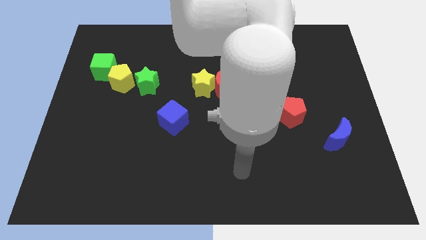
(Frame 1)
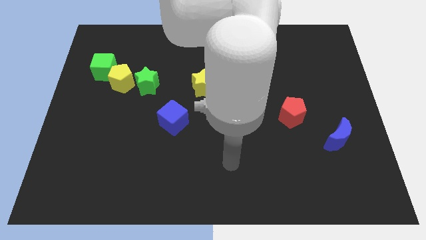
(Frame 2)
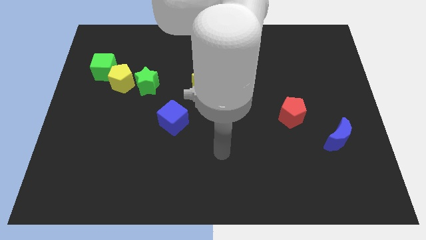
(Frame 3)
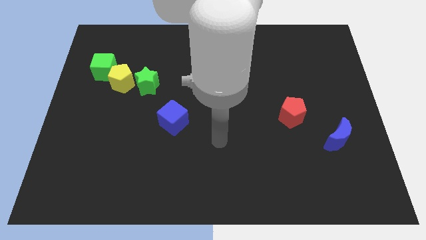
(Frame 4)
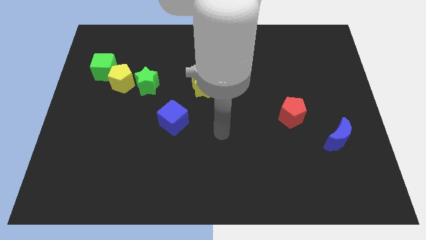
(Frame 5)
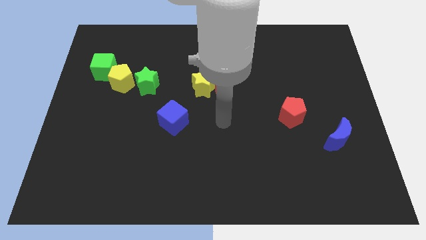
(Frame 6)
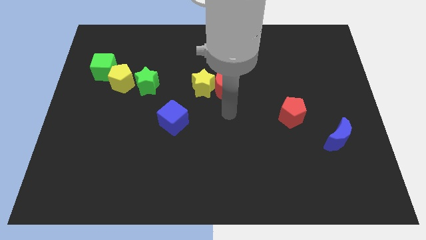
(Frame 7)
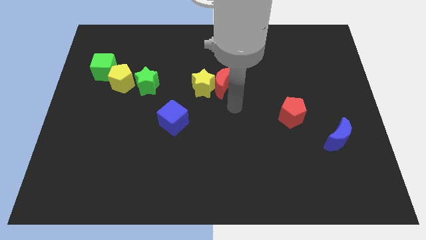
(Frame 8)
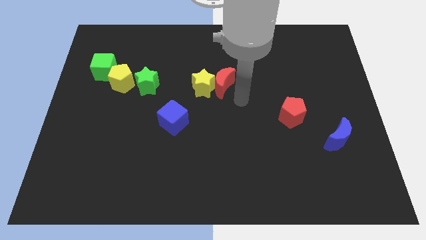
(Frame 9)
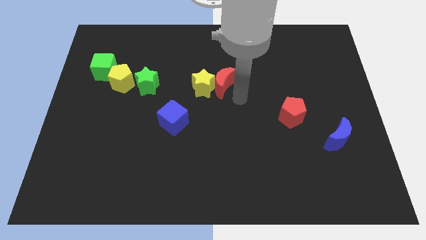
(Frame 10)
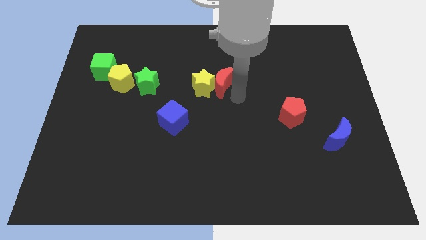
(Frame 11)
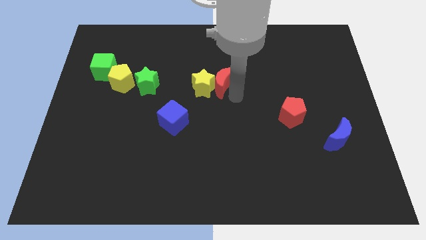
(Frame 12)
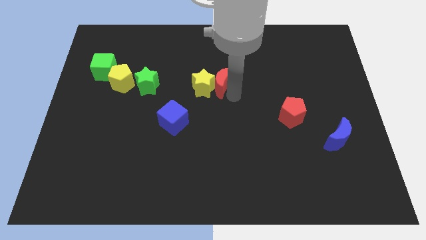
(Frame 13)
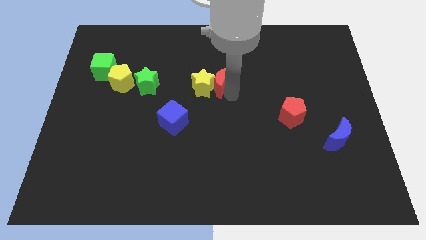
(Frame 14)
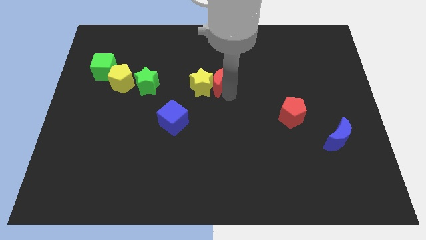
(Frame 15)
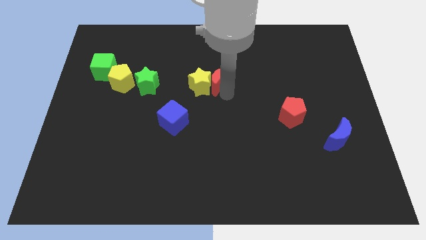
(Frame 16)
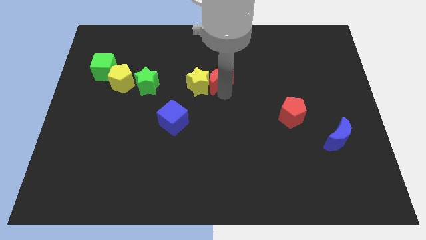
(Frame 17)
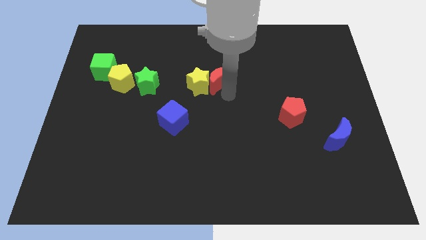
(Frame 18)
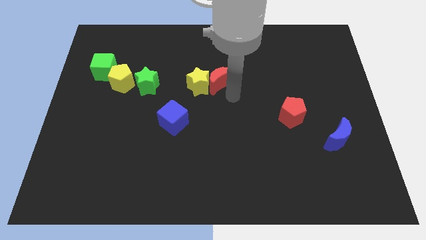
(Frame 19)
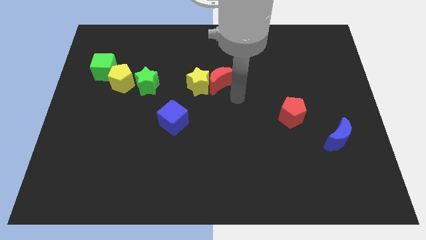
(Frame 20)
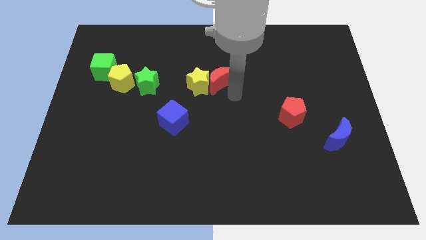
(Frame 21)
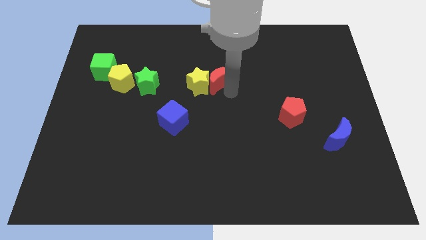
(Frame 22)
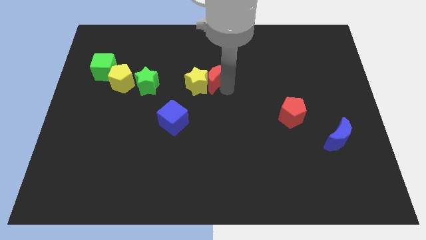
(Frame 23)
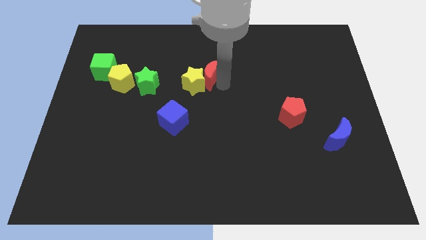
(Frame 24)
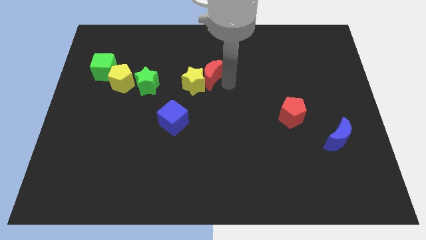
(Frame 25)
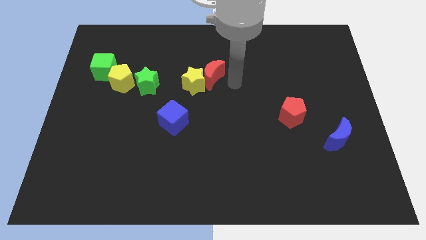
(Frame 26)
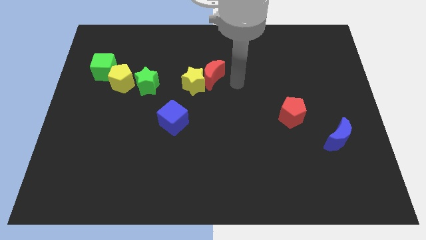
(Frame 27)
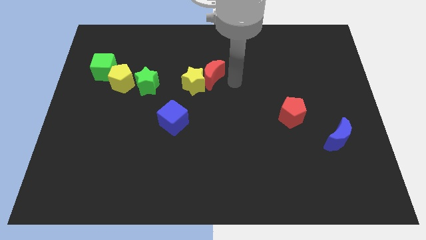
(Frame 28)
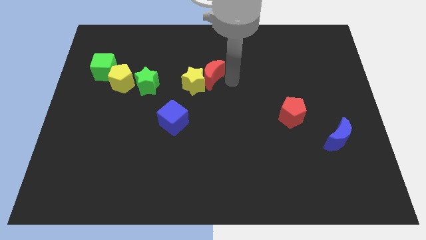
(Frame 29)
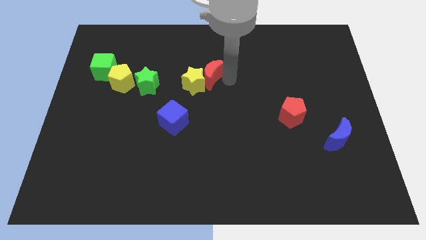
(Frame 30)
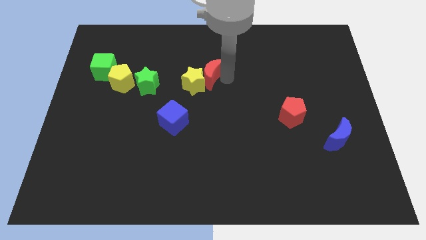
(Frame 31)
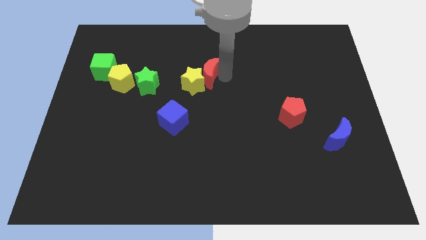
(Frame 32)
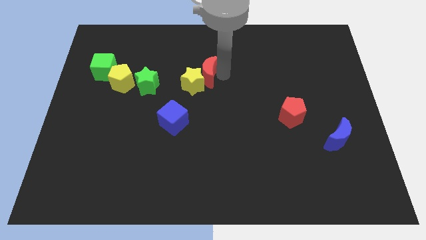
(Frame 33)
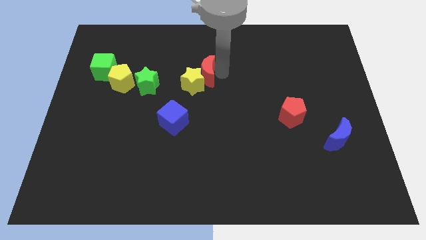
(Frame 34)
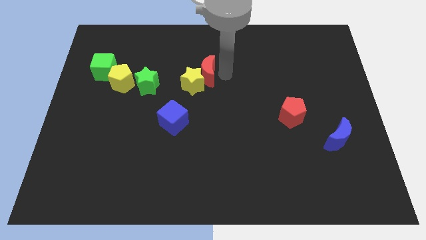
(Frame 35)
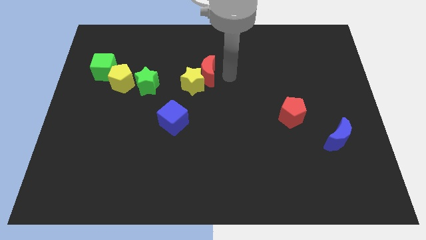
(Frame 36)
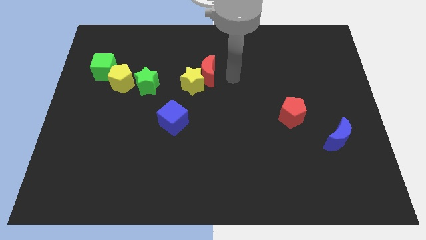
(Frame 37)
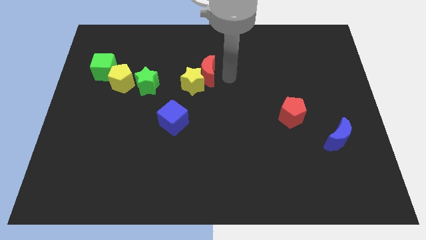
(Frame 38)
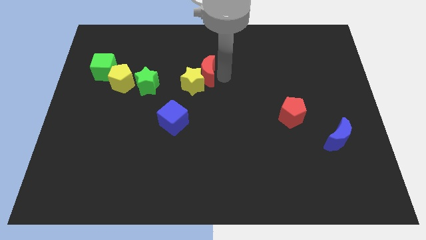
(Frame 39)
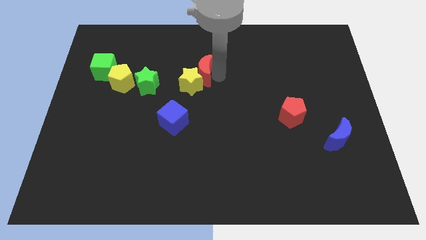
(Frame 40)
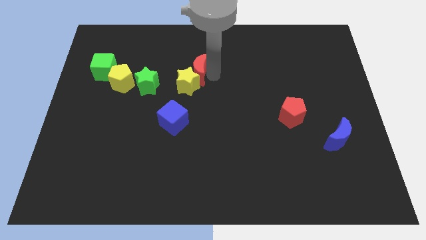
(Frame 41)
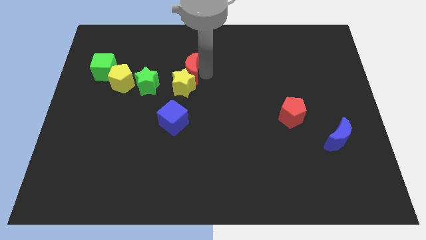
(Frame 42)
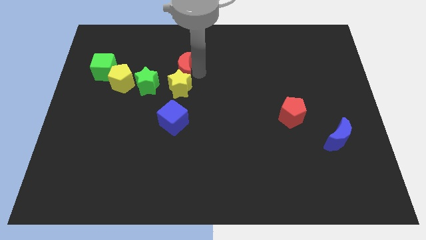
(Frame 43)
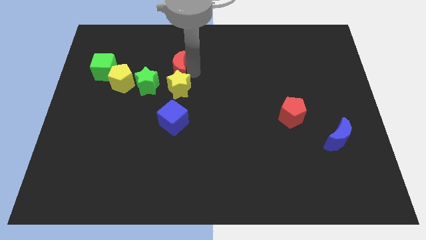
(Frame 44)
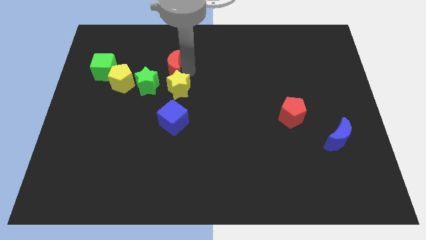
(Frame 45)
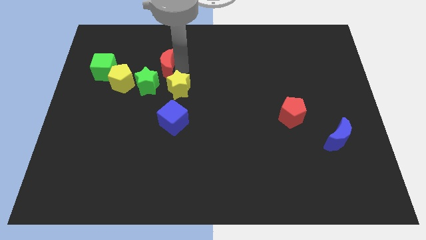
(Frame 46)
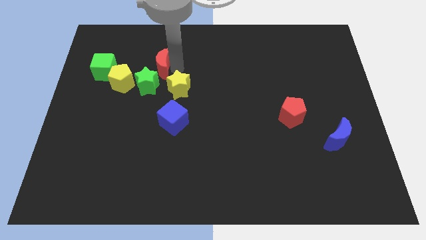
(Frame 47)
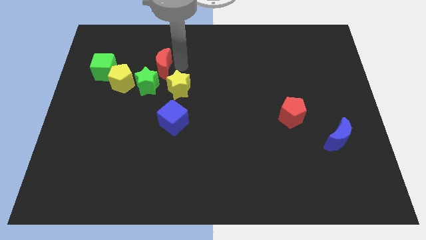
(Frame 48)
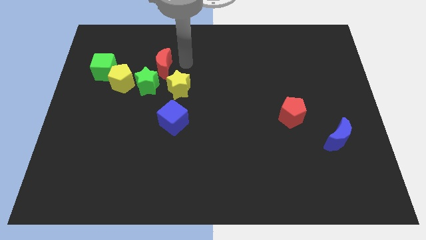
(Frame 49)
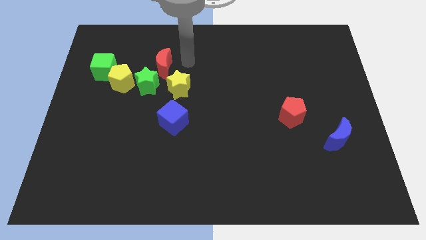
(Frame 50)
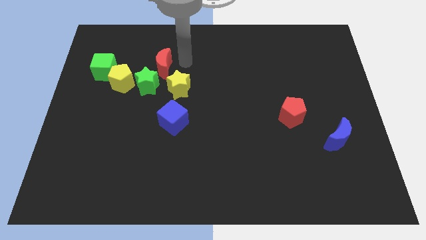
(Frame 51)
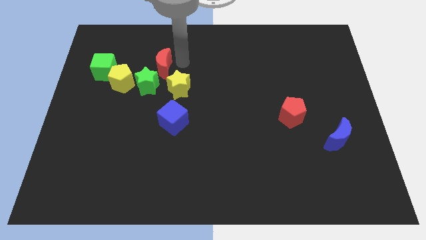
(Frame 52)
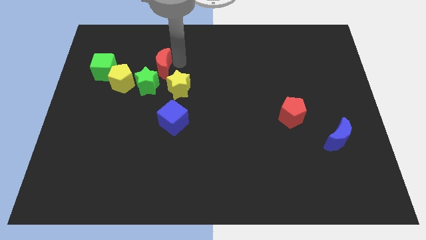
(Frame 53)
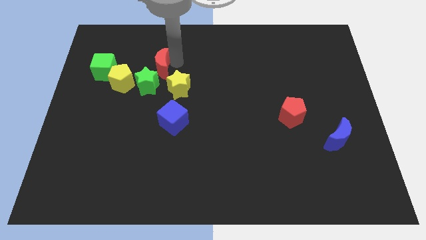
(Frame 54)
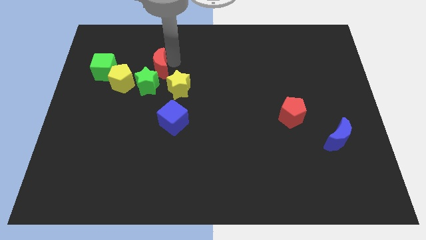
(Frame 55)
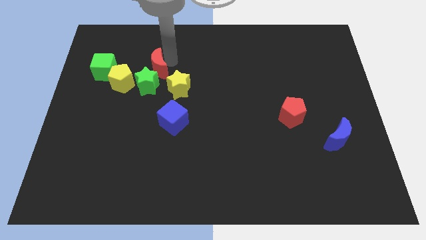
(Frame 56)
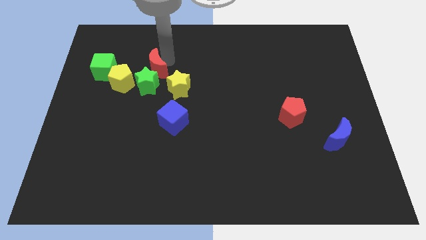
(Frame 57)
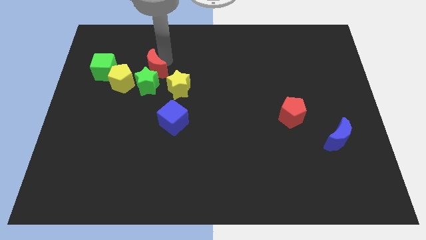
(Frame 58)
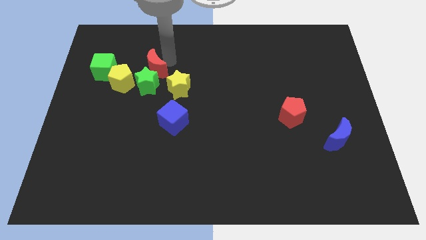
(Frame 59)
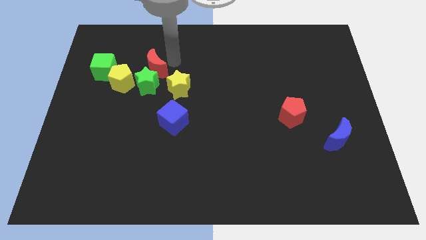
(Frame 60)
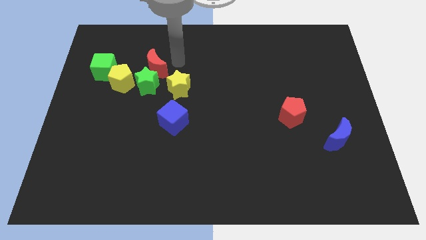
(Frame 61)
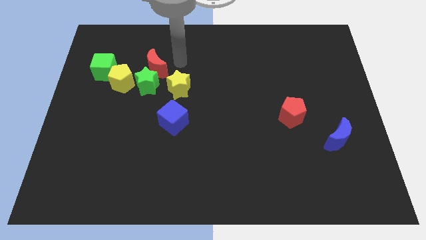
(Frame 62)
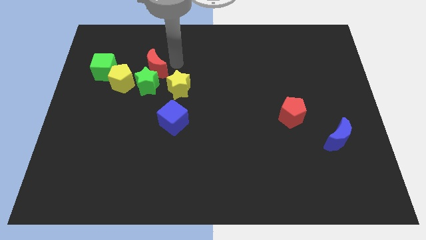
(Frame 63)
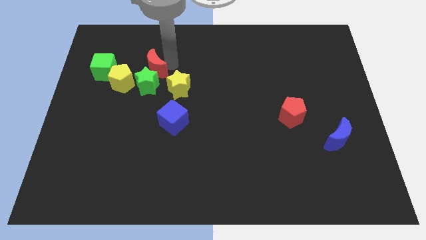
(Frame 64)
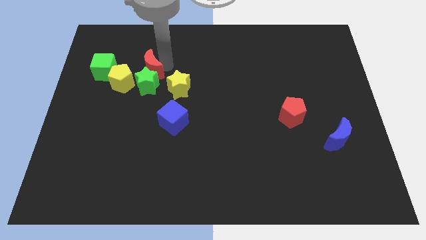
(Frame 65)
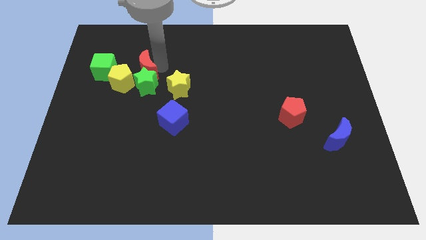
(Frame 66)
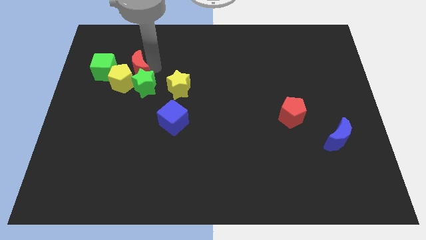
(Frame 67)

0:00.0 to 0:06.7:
push the red moon close to the yellow pentagon

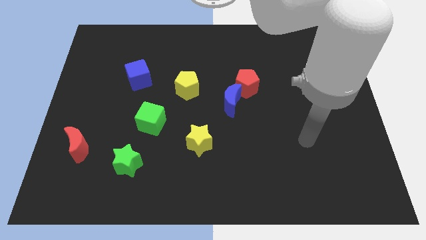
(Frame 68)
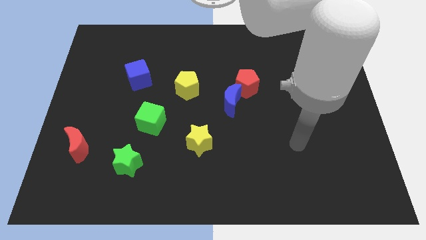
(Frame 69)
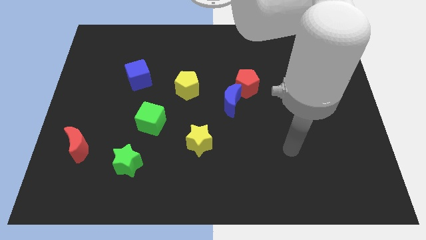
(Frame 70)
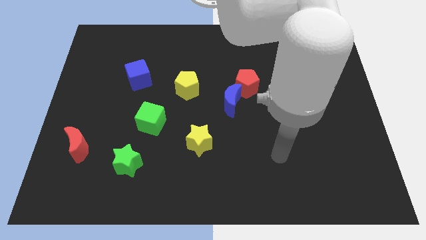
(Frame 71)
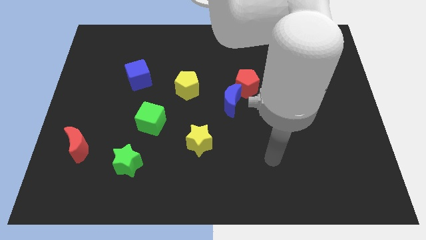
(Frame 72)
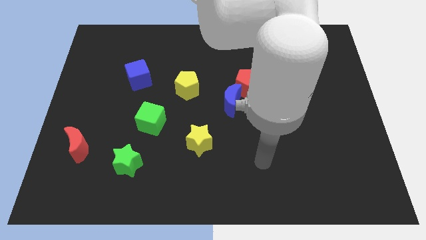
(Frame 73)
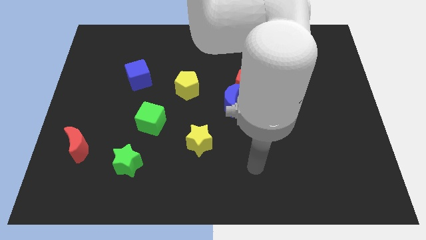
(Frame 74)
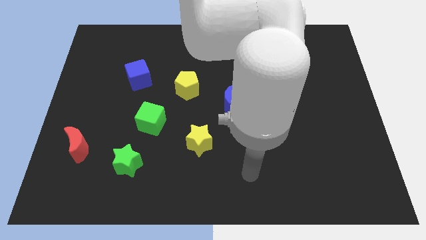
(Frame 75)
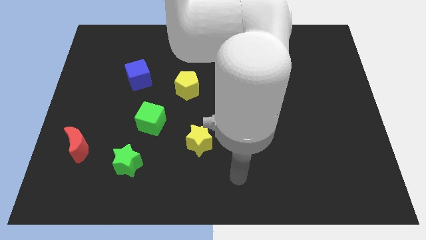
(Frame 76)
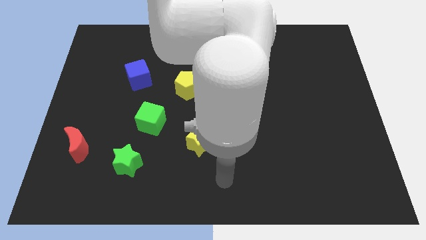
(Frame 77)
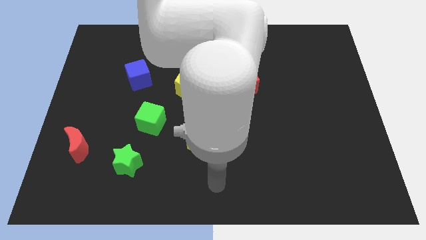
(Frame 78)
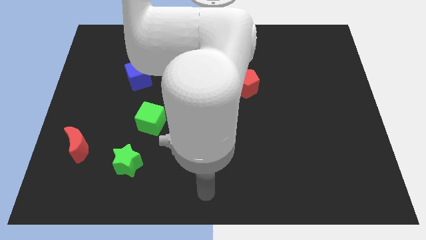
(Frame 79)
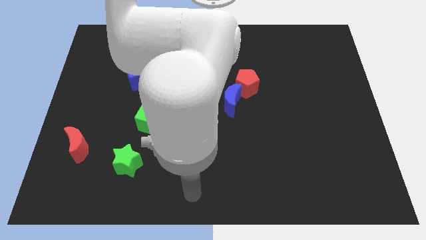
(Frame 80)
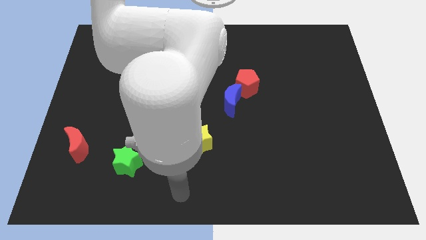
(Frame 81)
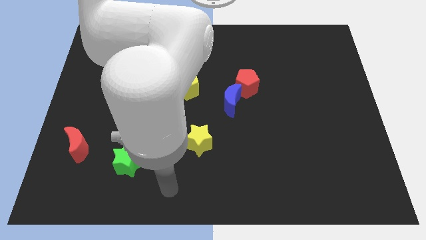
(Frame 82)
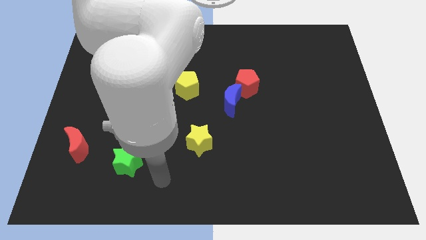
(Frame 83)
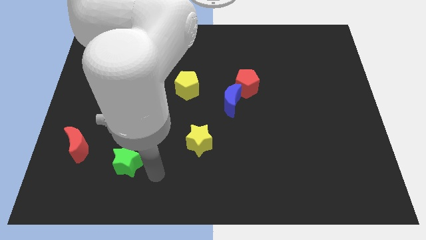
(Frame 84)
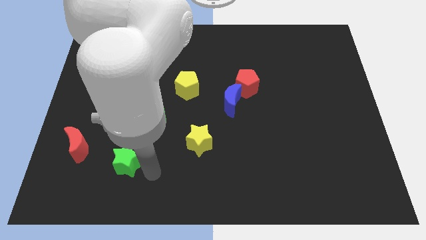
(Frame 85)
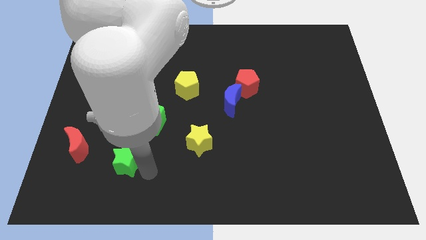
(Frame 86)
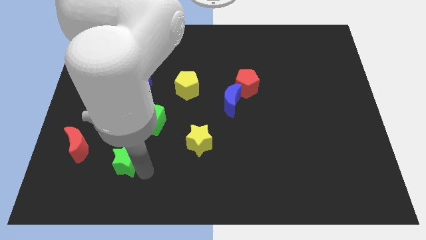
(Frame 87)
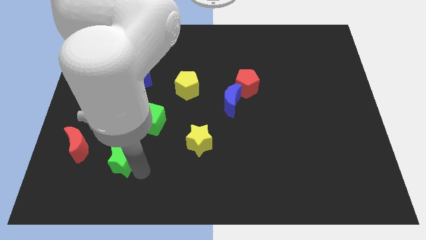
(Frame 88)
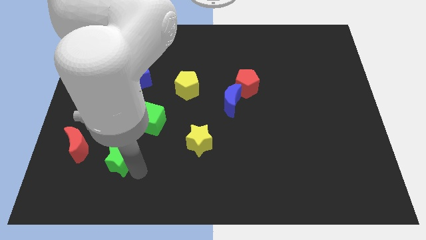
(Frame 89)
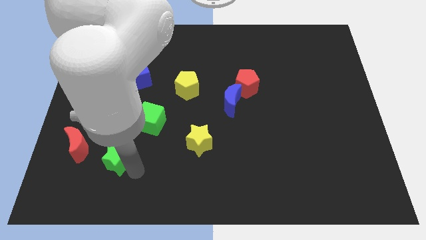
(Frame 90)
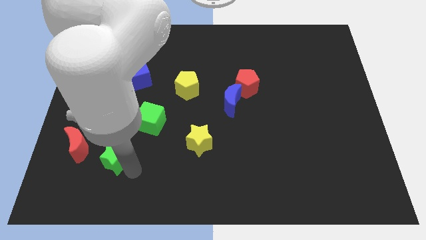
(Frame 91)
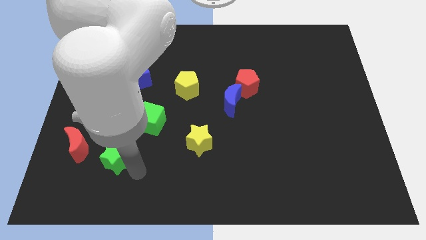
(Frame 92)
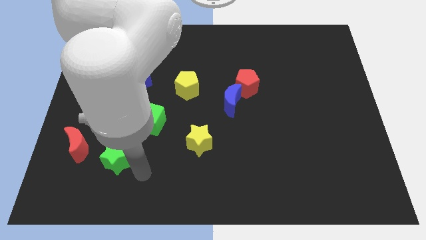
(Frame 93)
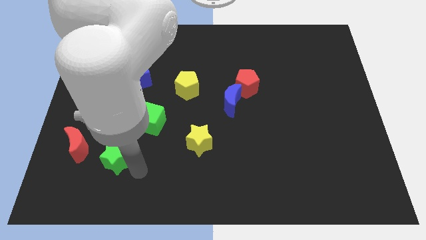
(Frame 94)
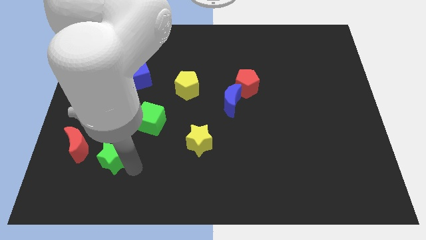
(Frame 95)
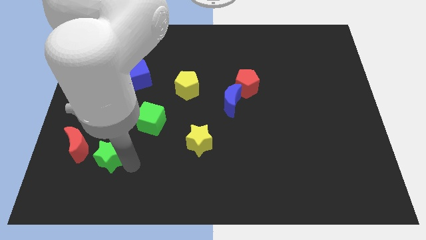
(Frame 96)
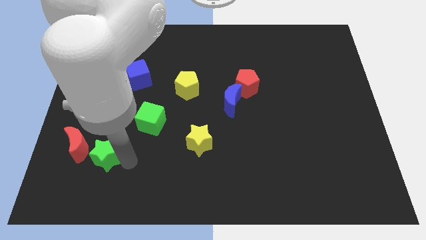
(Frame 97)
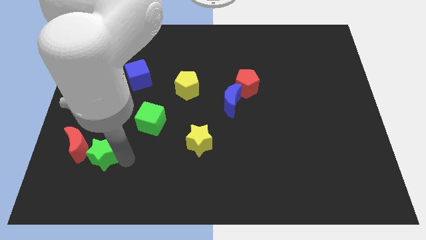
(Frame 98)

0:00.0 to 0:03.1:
move the green star close to the red moon
